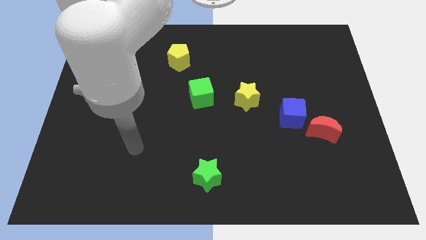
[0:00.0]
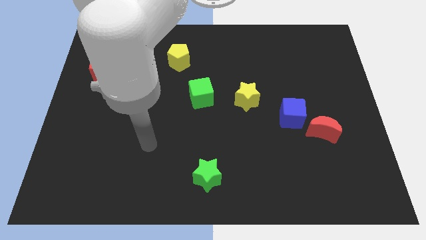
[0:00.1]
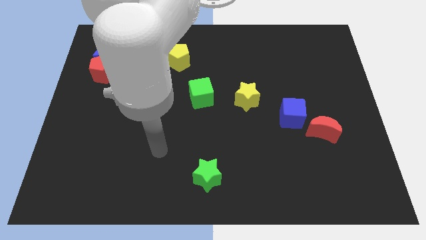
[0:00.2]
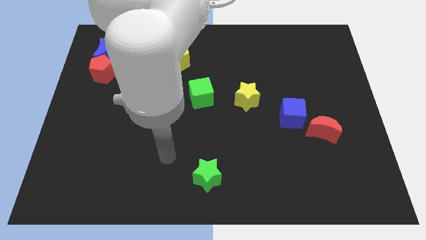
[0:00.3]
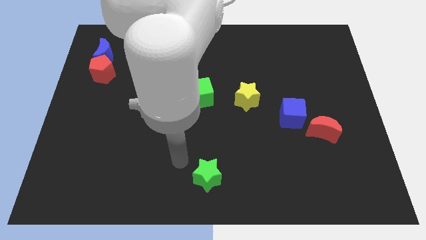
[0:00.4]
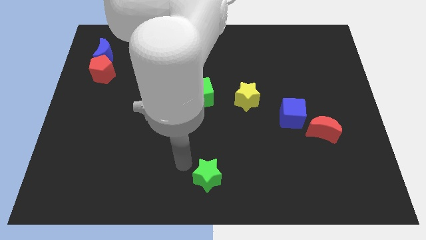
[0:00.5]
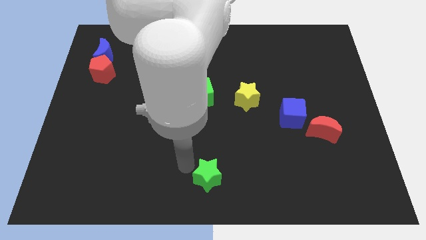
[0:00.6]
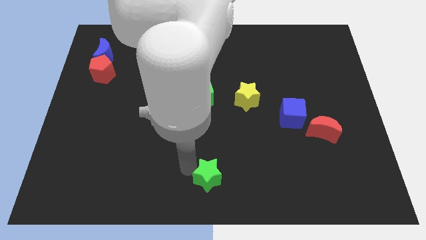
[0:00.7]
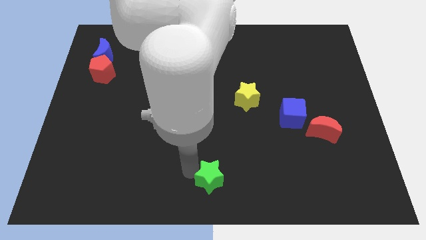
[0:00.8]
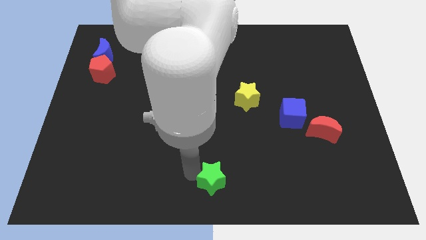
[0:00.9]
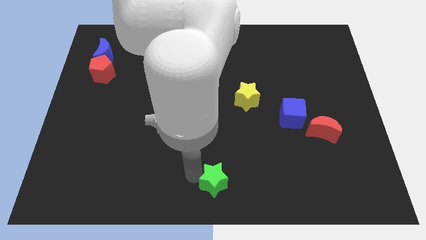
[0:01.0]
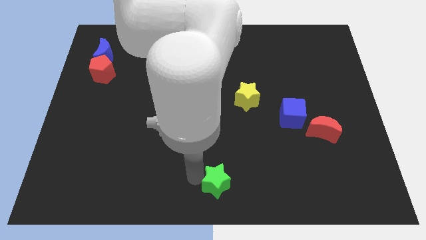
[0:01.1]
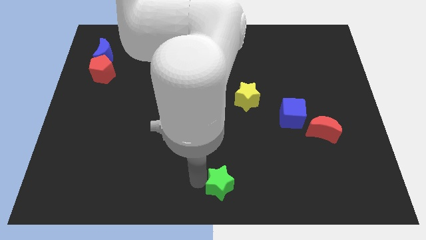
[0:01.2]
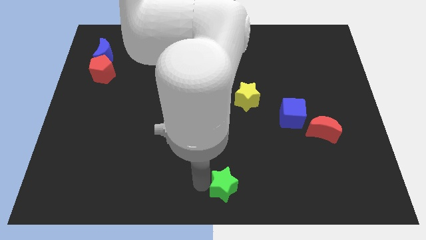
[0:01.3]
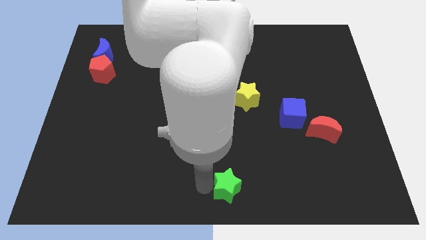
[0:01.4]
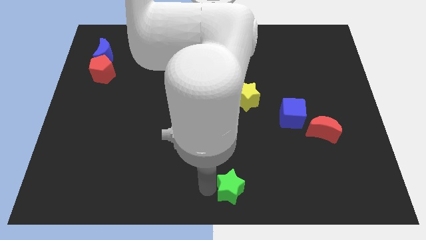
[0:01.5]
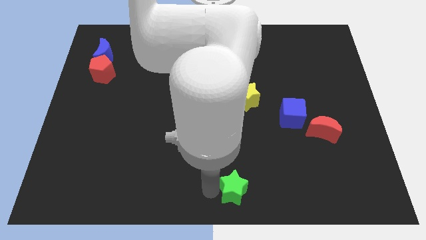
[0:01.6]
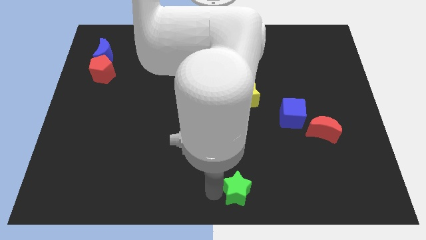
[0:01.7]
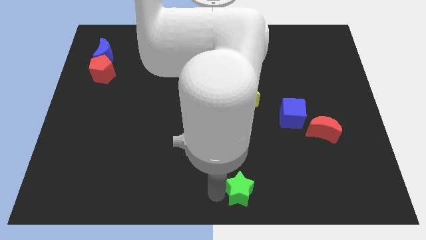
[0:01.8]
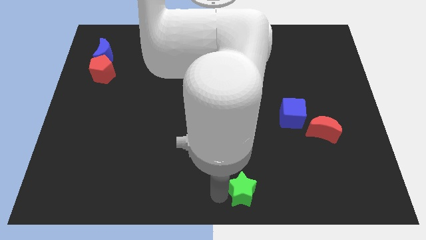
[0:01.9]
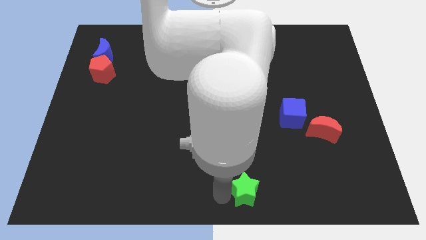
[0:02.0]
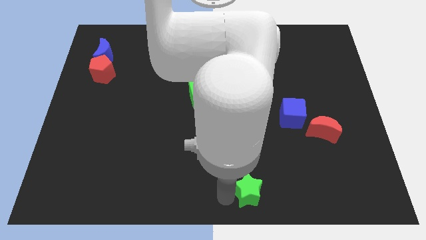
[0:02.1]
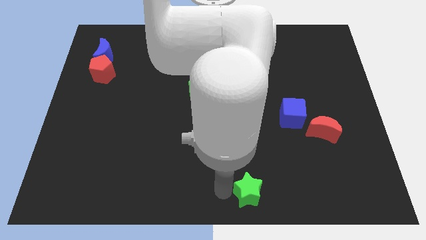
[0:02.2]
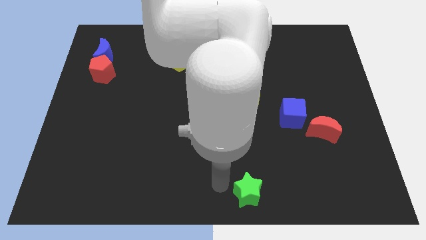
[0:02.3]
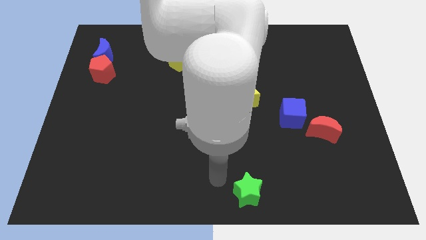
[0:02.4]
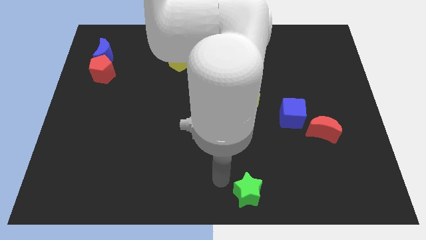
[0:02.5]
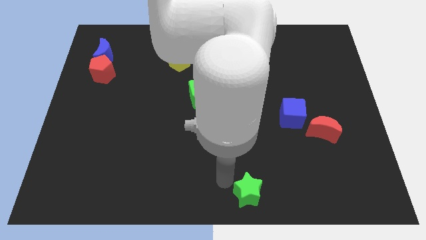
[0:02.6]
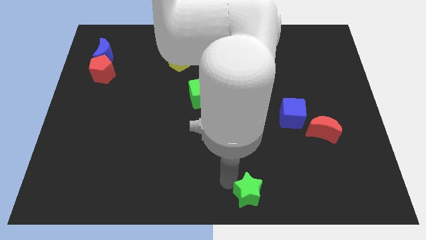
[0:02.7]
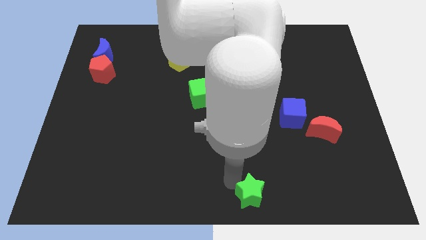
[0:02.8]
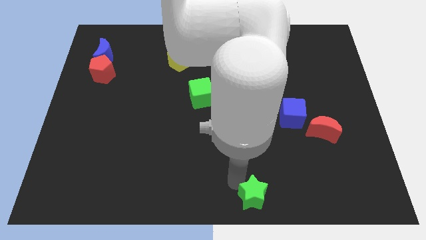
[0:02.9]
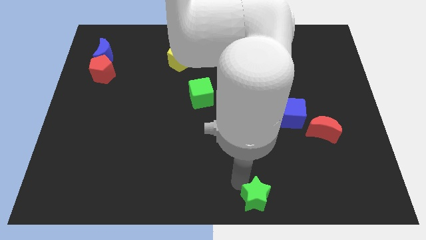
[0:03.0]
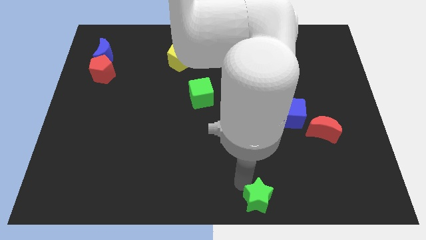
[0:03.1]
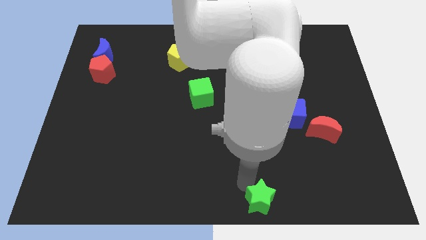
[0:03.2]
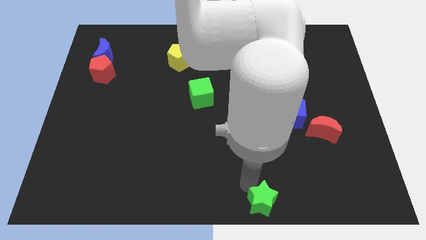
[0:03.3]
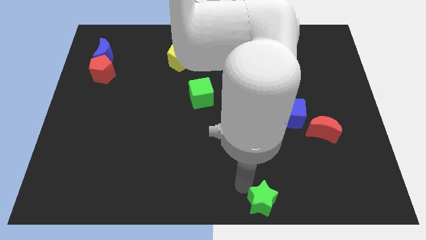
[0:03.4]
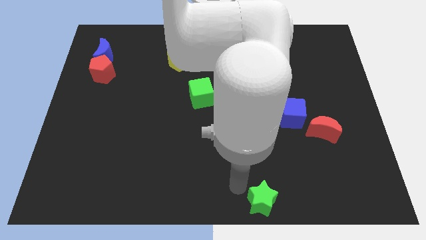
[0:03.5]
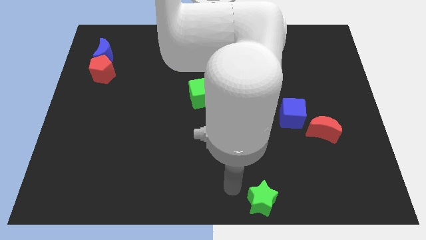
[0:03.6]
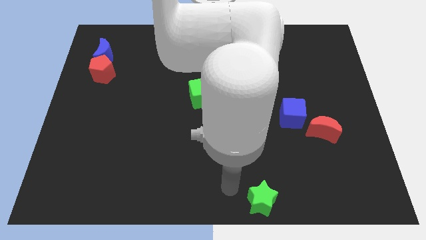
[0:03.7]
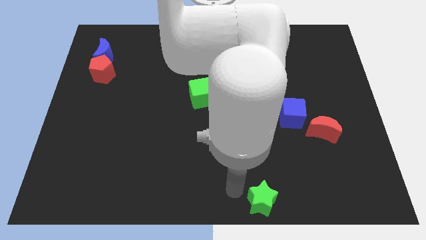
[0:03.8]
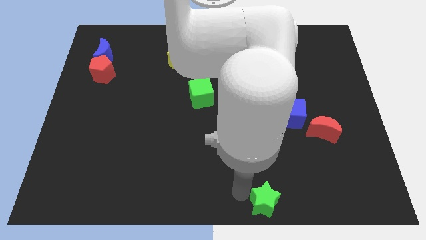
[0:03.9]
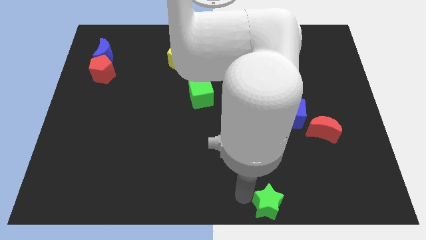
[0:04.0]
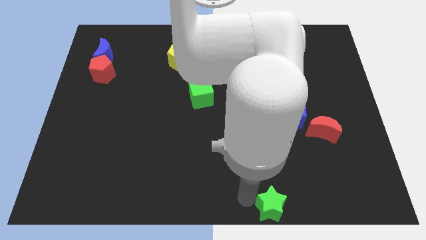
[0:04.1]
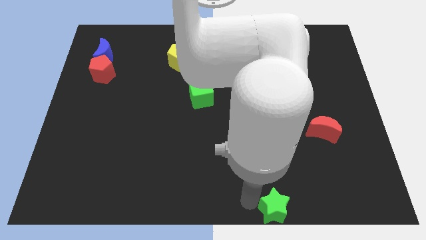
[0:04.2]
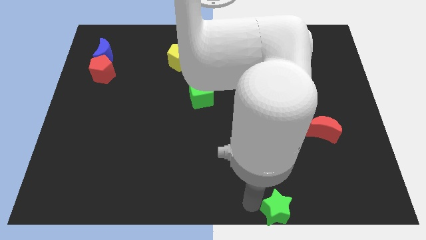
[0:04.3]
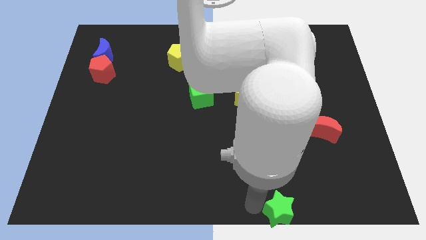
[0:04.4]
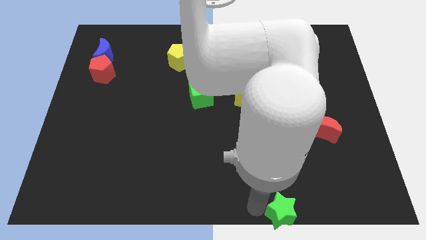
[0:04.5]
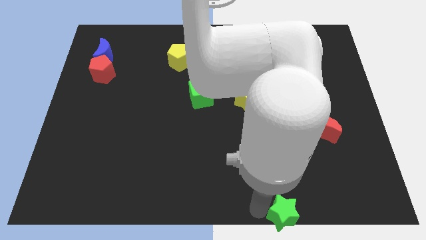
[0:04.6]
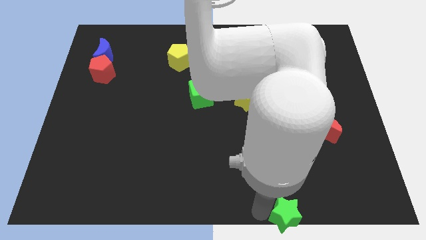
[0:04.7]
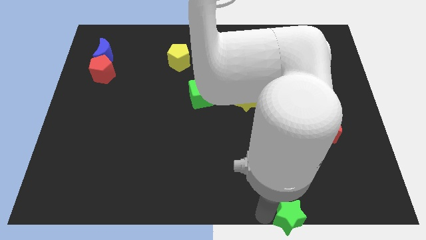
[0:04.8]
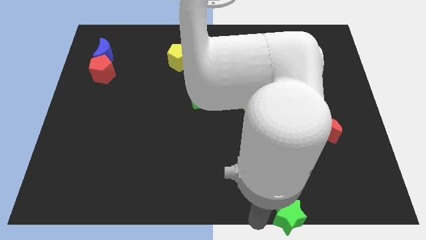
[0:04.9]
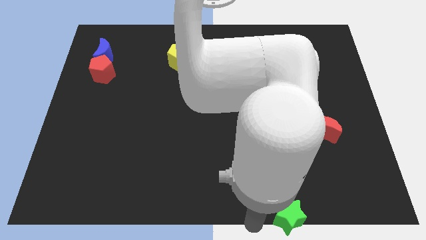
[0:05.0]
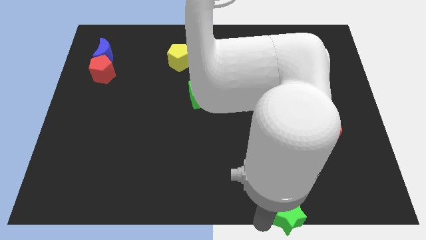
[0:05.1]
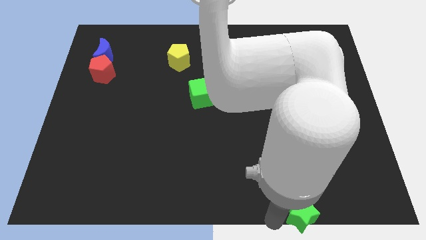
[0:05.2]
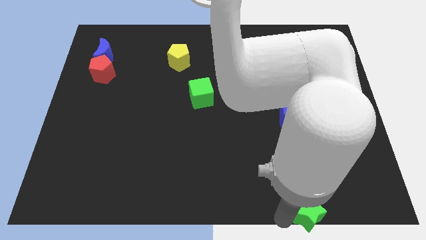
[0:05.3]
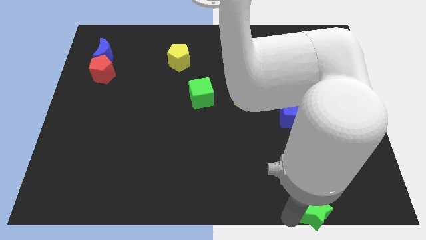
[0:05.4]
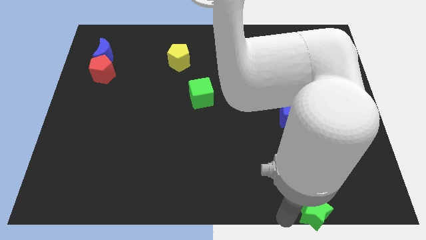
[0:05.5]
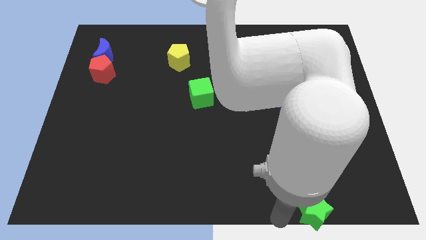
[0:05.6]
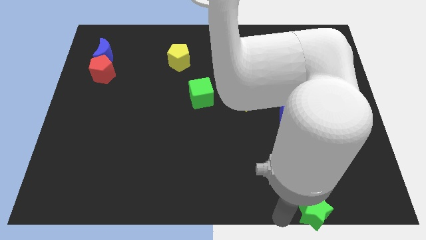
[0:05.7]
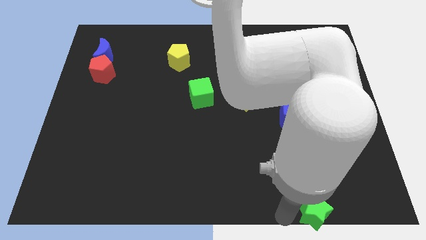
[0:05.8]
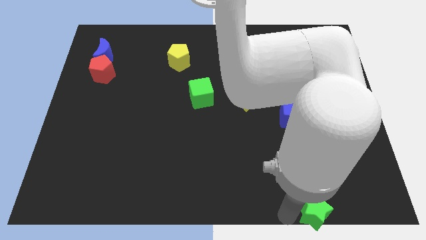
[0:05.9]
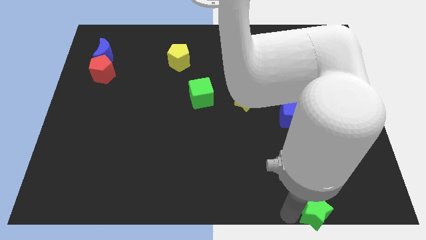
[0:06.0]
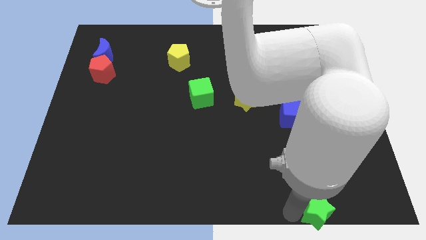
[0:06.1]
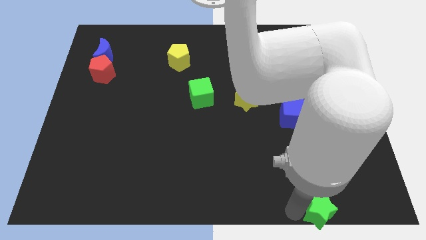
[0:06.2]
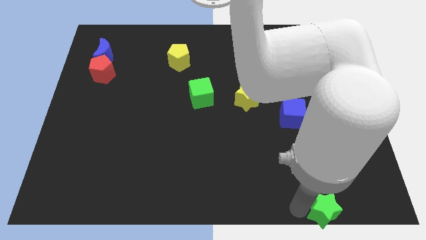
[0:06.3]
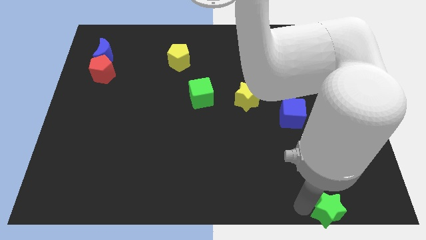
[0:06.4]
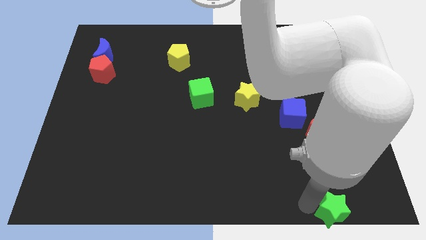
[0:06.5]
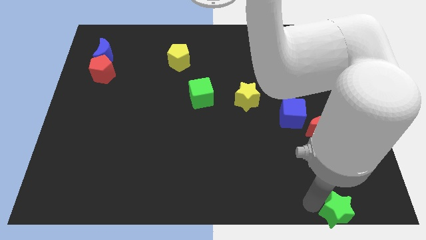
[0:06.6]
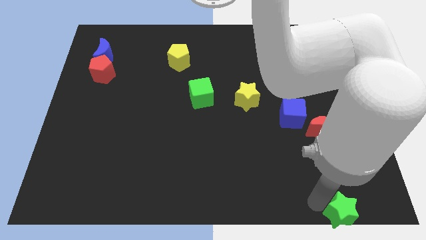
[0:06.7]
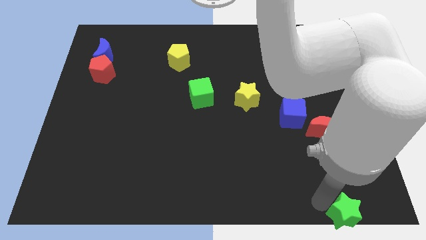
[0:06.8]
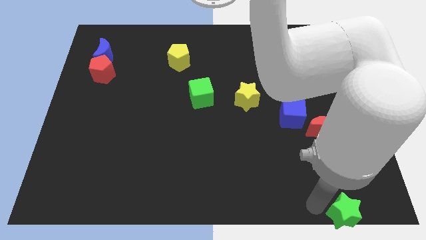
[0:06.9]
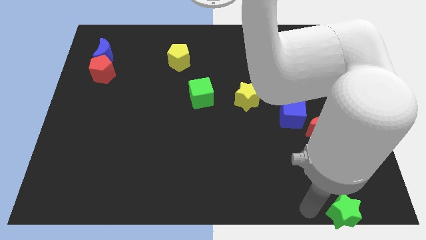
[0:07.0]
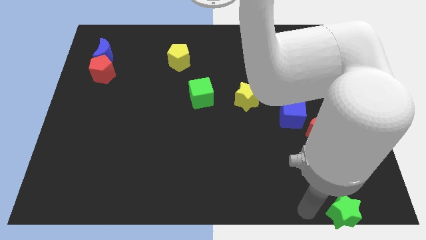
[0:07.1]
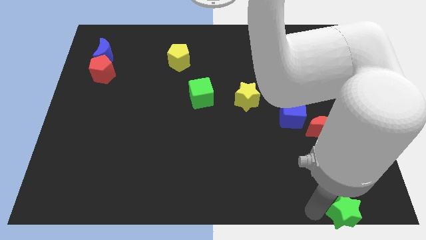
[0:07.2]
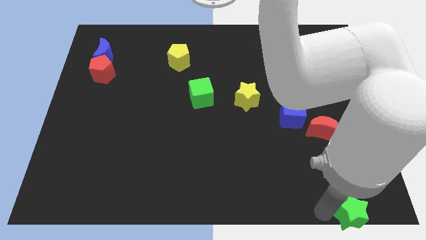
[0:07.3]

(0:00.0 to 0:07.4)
push the green star to the bottom right of the board
